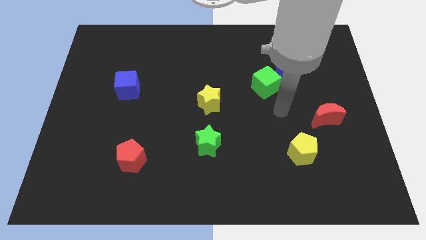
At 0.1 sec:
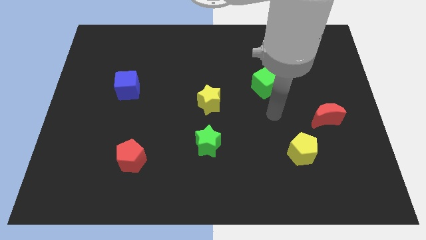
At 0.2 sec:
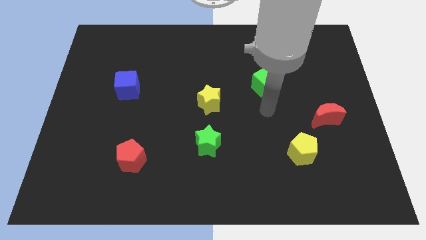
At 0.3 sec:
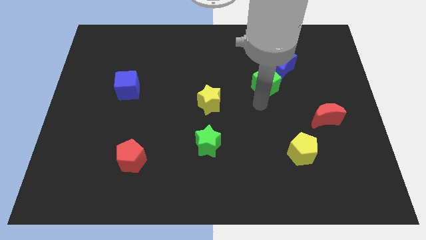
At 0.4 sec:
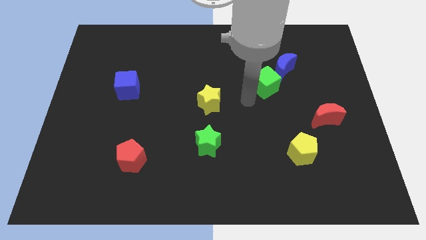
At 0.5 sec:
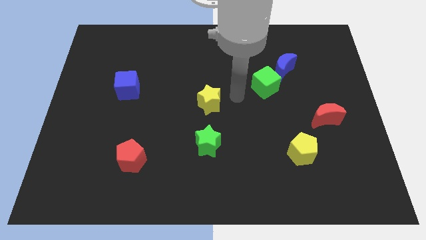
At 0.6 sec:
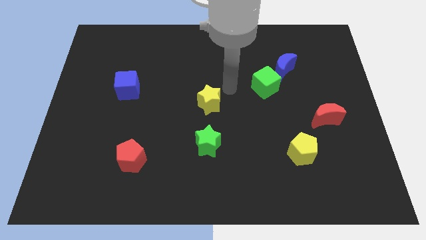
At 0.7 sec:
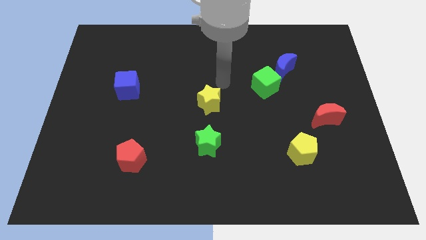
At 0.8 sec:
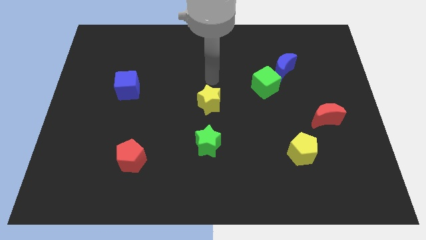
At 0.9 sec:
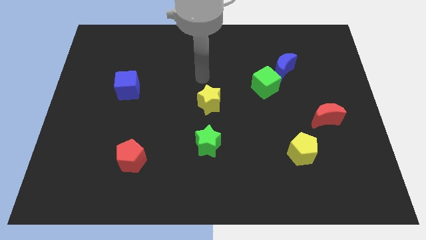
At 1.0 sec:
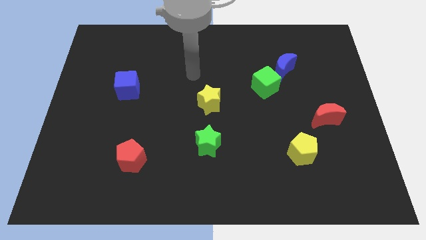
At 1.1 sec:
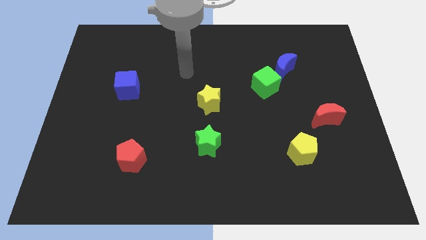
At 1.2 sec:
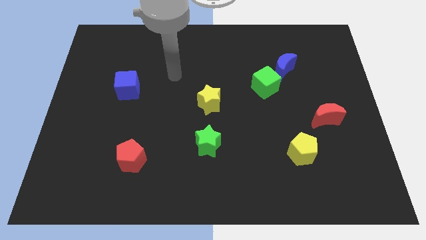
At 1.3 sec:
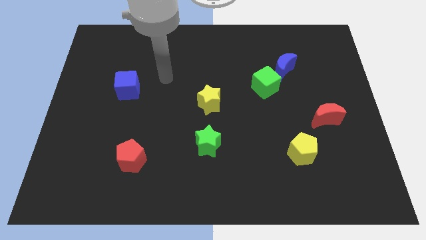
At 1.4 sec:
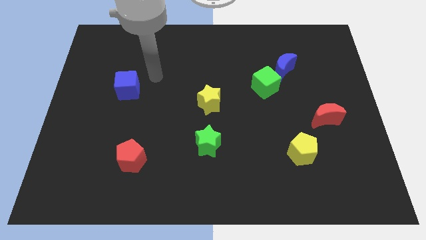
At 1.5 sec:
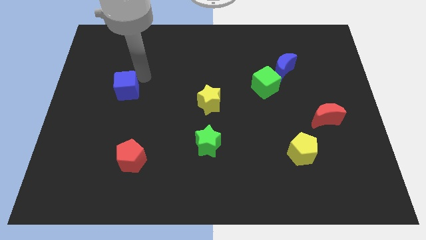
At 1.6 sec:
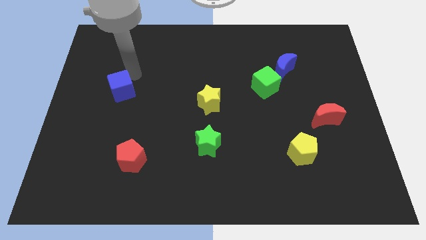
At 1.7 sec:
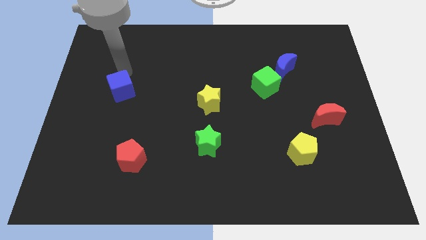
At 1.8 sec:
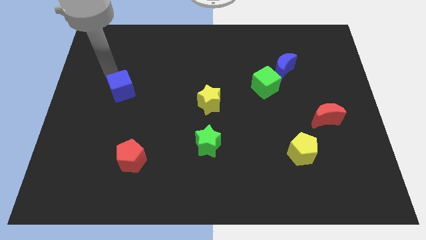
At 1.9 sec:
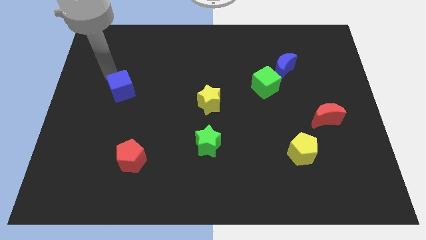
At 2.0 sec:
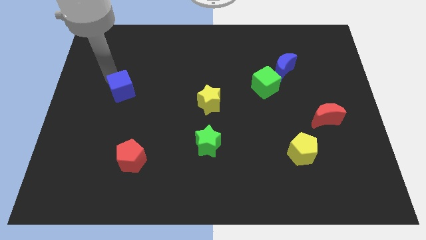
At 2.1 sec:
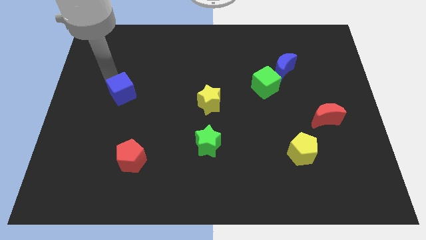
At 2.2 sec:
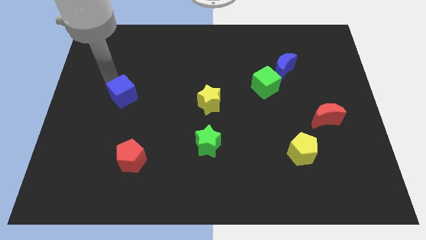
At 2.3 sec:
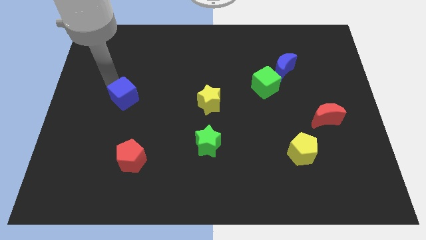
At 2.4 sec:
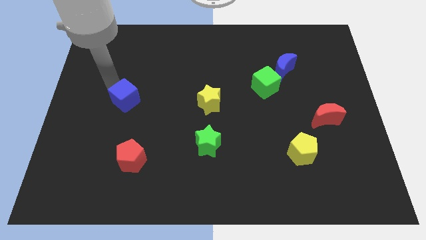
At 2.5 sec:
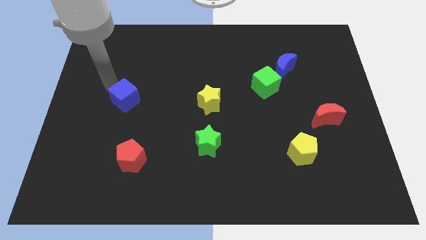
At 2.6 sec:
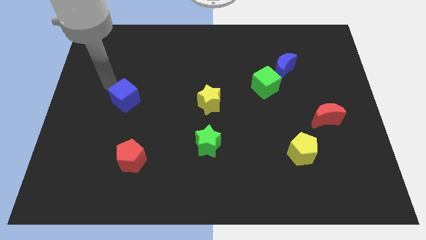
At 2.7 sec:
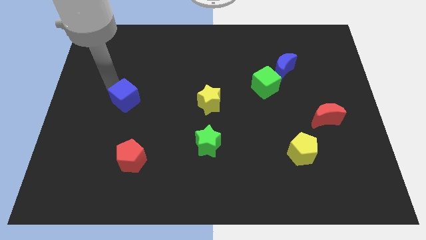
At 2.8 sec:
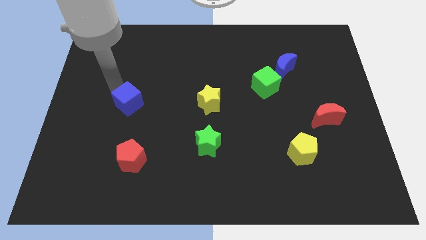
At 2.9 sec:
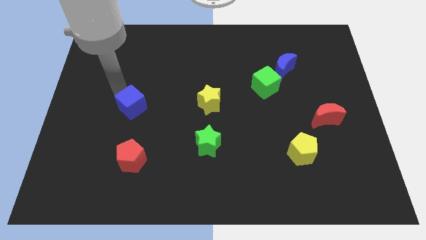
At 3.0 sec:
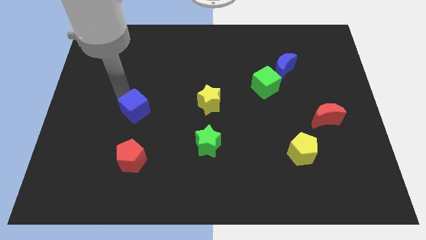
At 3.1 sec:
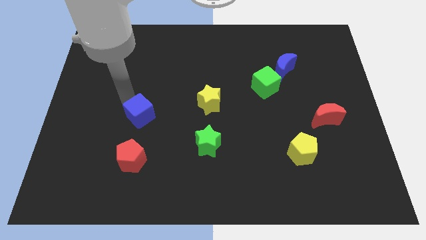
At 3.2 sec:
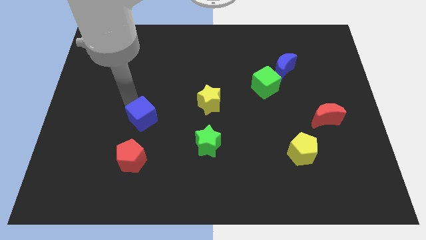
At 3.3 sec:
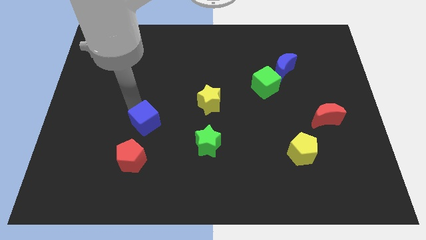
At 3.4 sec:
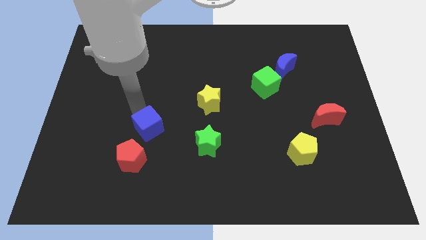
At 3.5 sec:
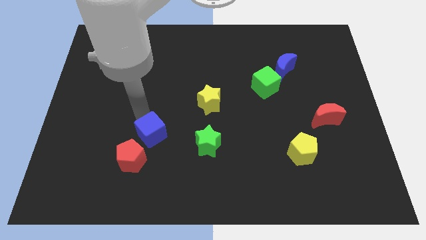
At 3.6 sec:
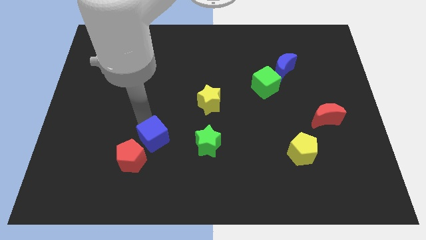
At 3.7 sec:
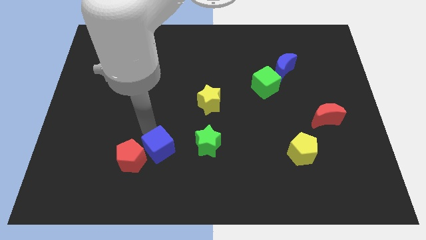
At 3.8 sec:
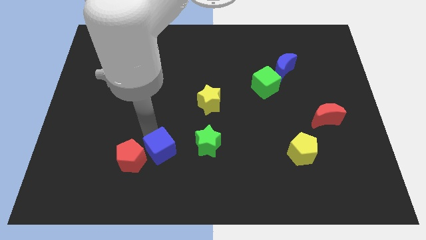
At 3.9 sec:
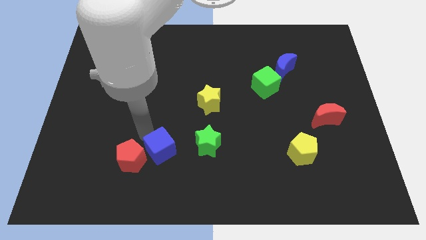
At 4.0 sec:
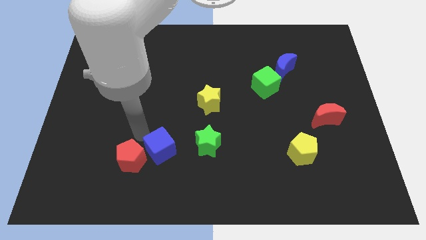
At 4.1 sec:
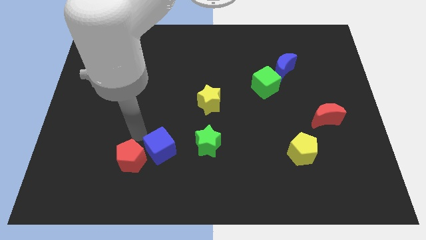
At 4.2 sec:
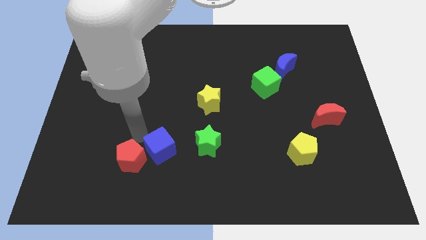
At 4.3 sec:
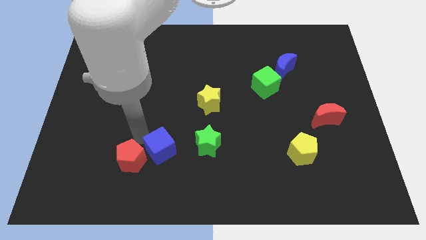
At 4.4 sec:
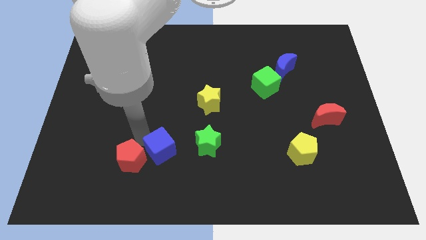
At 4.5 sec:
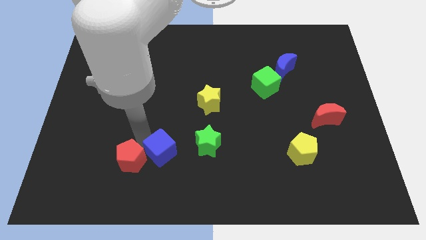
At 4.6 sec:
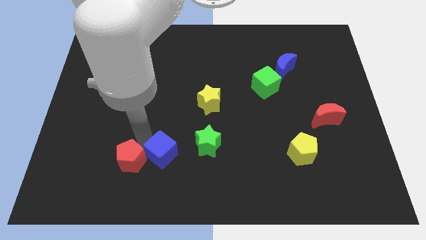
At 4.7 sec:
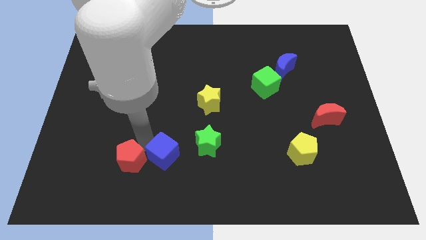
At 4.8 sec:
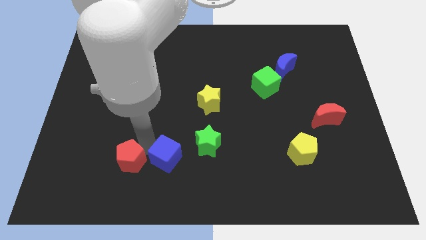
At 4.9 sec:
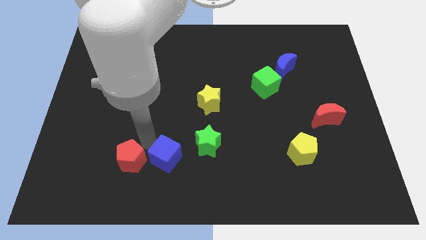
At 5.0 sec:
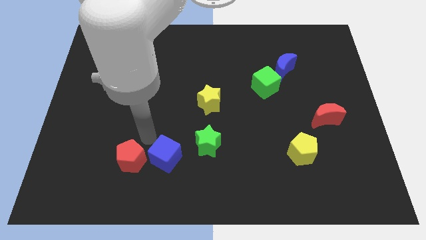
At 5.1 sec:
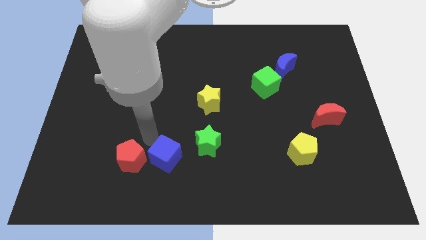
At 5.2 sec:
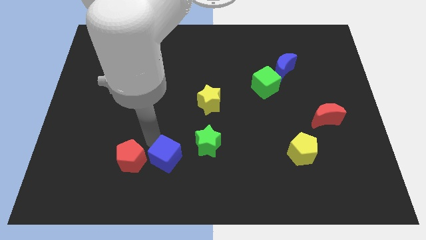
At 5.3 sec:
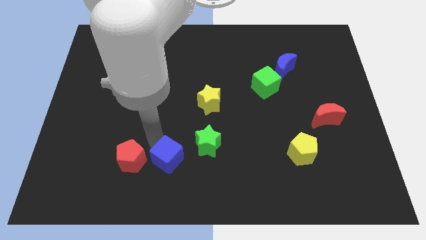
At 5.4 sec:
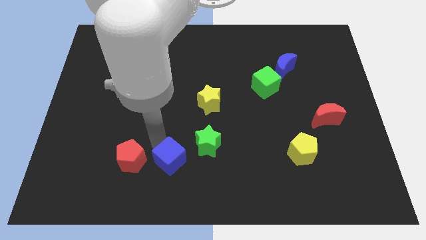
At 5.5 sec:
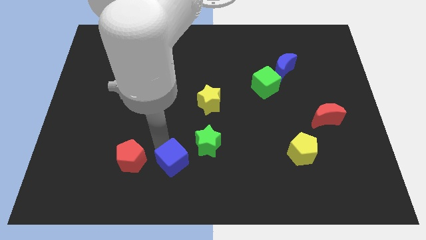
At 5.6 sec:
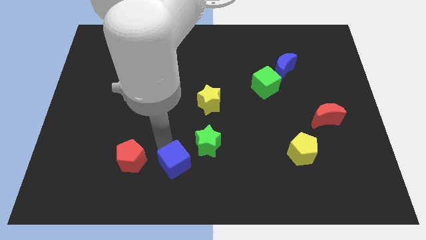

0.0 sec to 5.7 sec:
put the blue cube to the bottom
